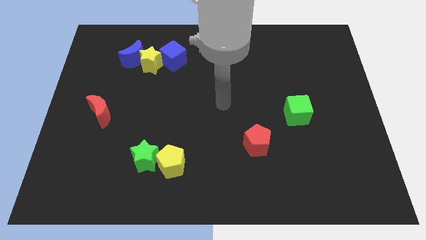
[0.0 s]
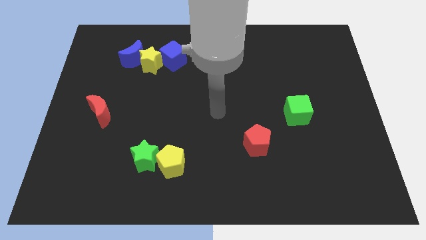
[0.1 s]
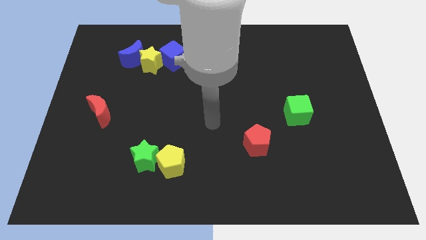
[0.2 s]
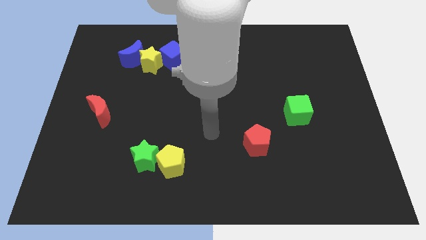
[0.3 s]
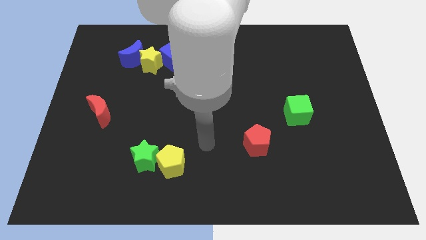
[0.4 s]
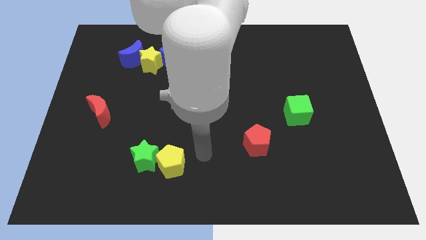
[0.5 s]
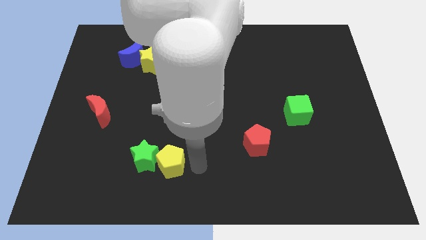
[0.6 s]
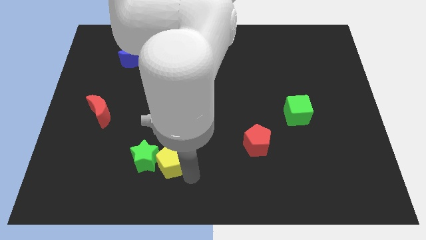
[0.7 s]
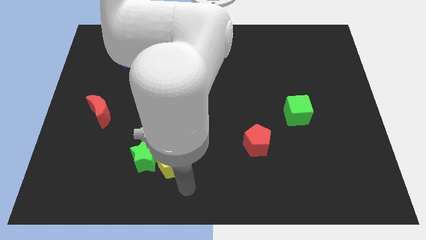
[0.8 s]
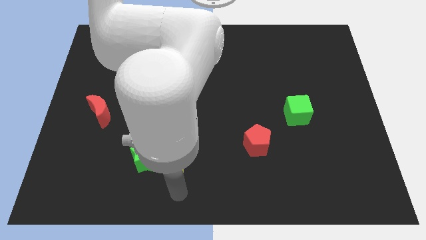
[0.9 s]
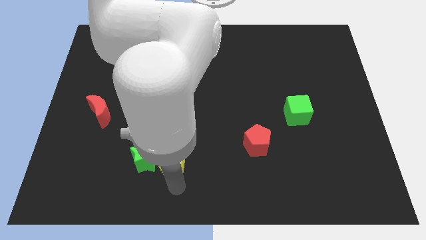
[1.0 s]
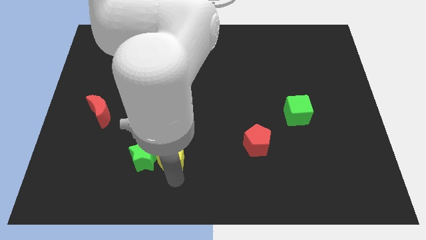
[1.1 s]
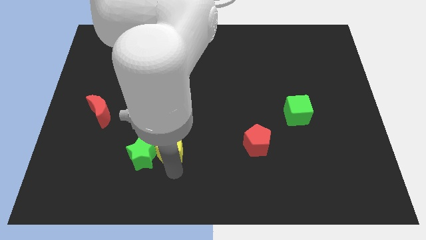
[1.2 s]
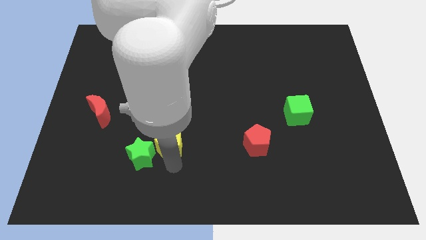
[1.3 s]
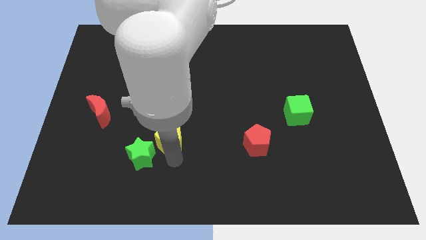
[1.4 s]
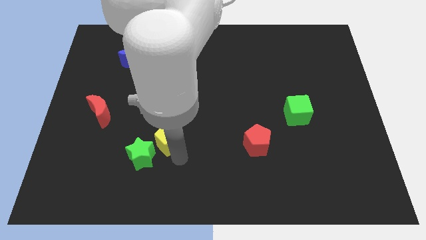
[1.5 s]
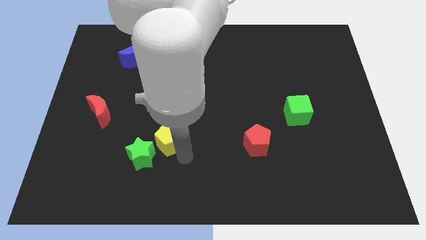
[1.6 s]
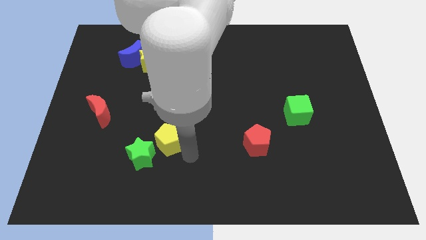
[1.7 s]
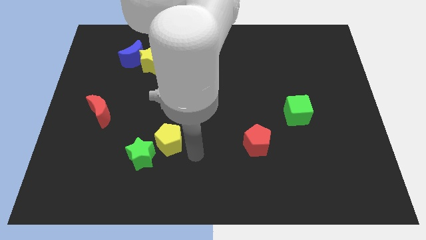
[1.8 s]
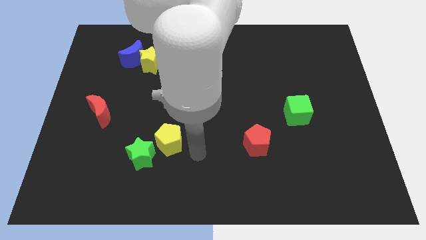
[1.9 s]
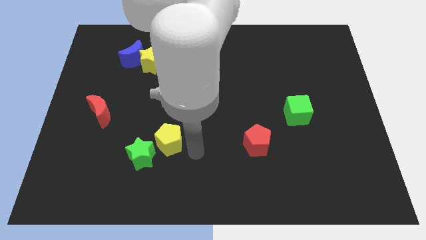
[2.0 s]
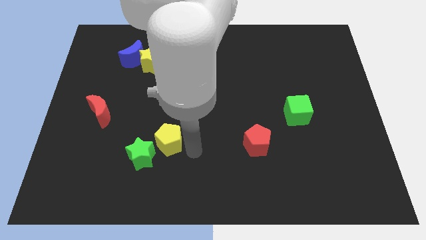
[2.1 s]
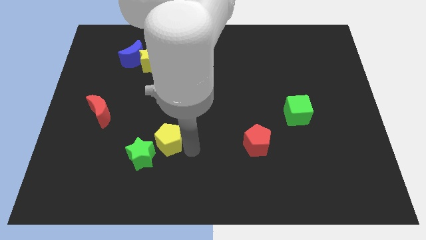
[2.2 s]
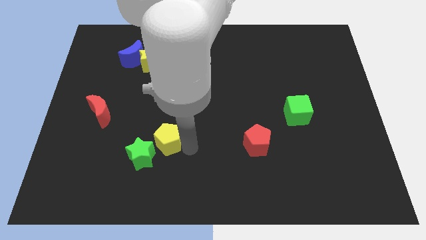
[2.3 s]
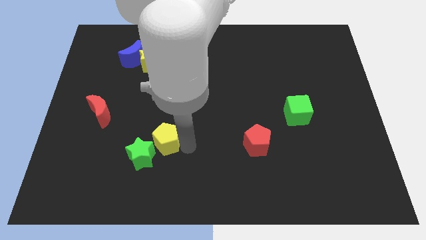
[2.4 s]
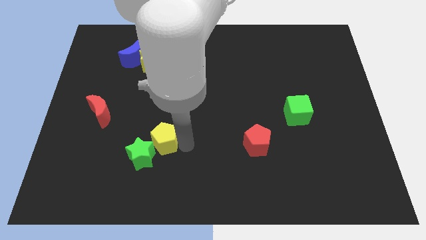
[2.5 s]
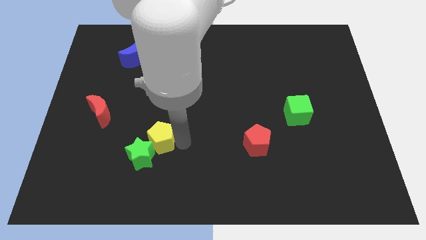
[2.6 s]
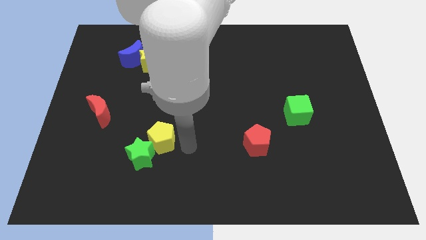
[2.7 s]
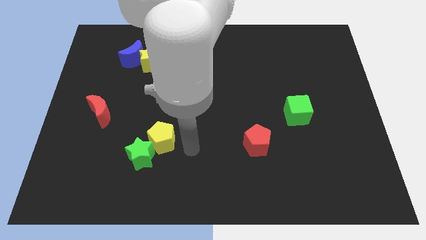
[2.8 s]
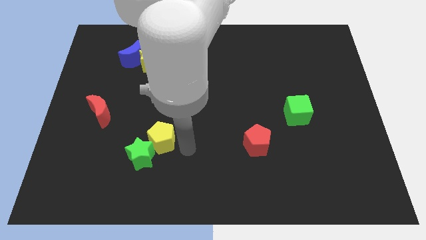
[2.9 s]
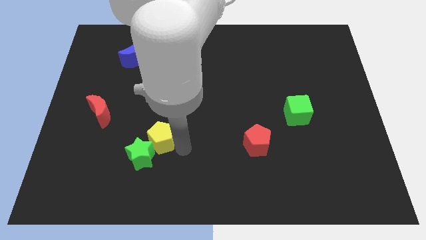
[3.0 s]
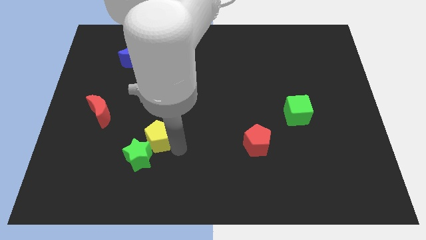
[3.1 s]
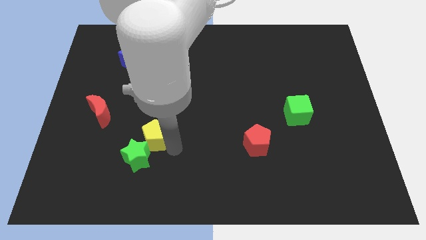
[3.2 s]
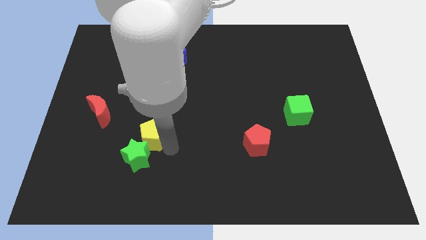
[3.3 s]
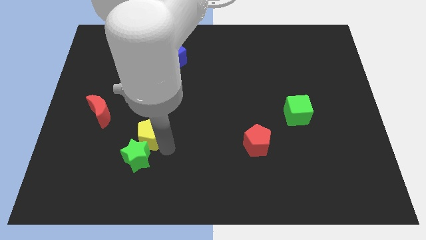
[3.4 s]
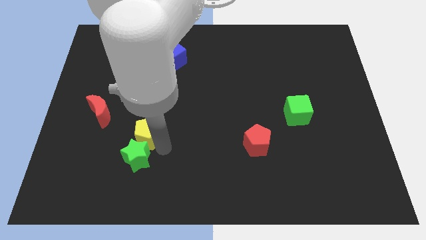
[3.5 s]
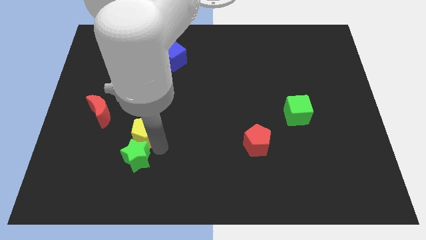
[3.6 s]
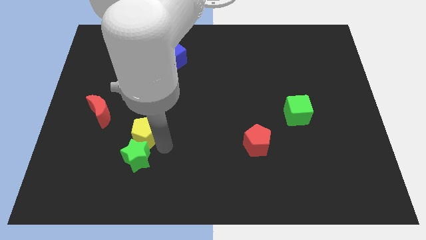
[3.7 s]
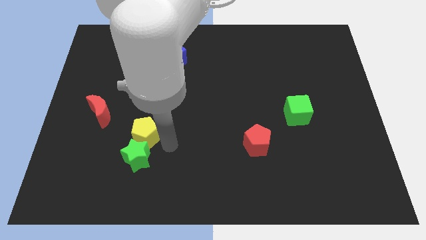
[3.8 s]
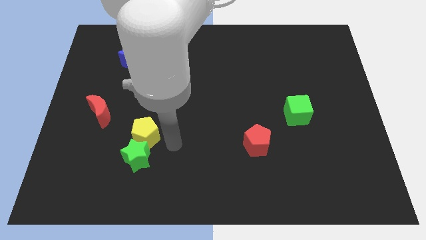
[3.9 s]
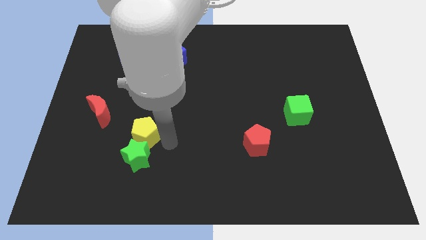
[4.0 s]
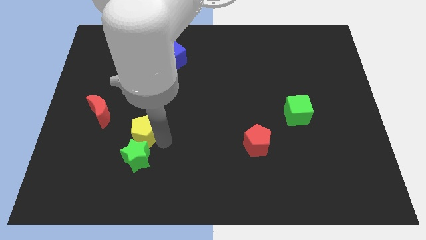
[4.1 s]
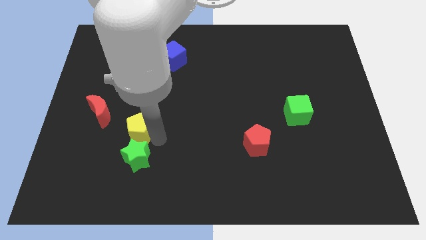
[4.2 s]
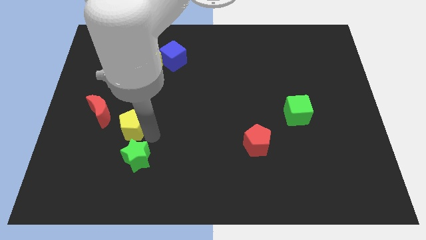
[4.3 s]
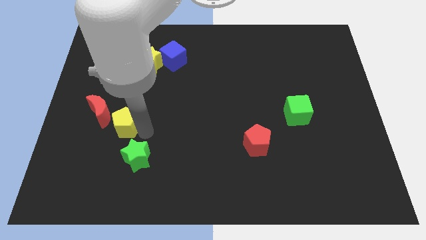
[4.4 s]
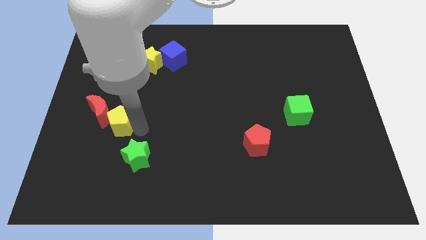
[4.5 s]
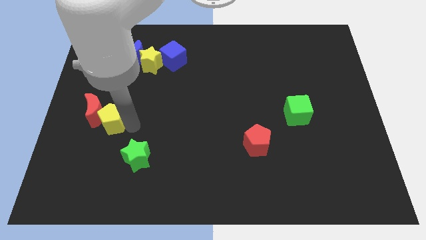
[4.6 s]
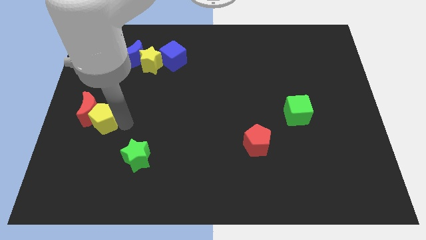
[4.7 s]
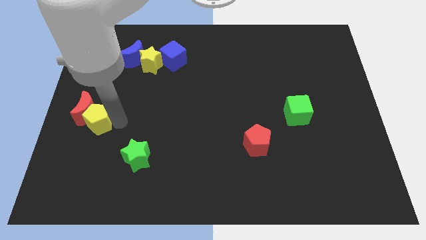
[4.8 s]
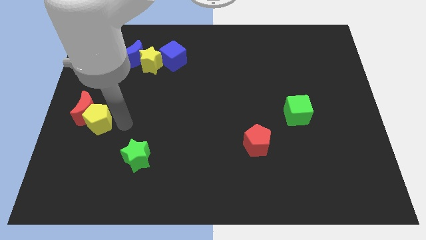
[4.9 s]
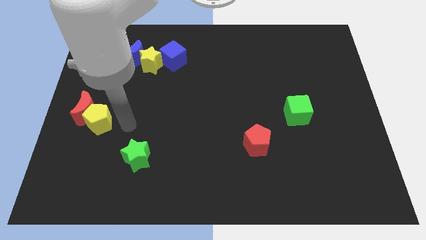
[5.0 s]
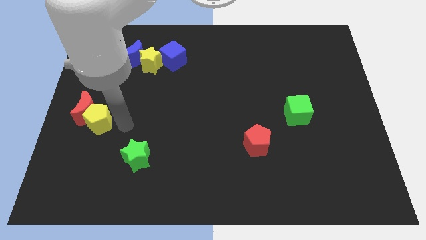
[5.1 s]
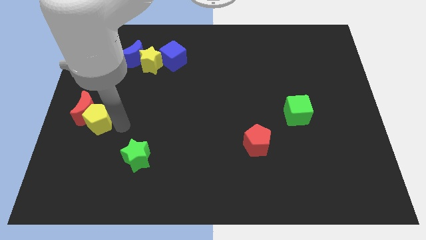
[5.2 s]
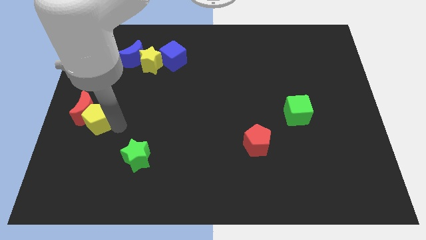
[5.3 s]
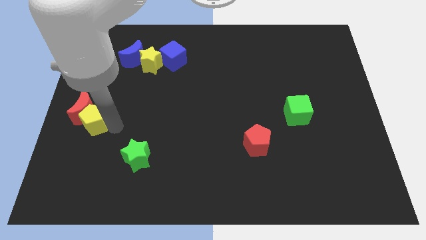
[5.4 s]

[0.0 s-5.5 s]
put the yellow pentagon to the left side

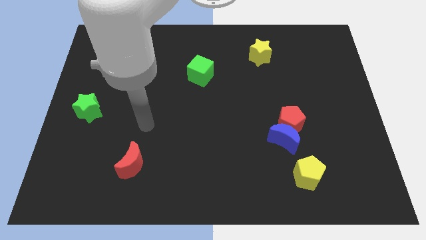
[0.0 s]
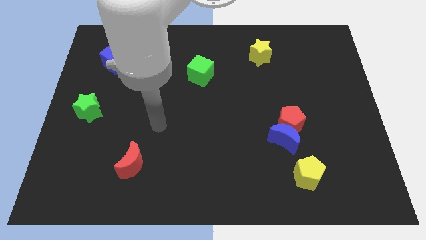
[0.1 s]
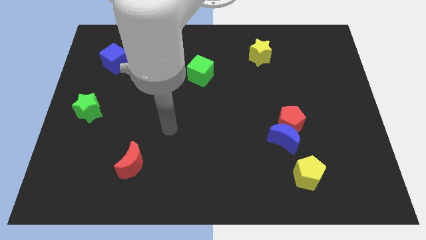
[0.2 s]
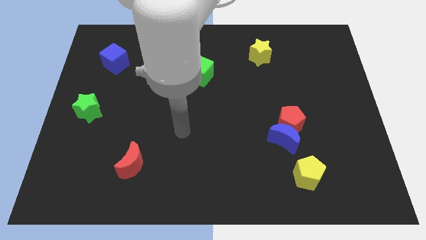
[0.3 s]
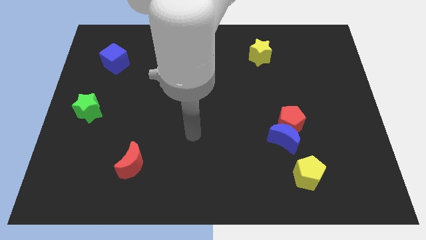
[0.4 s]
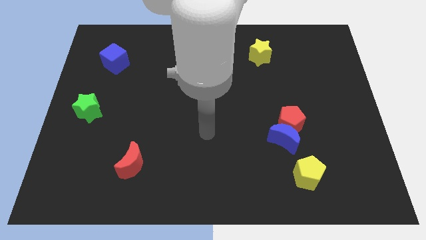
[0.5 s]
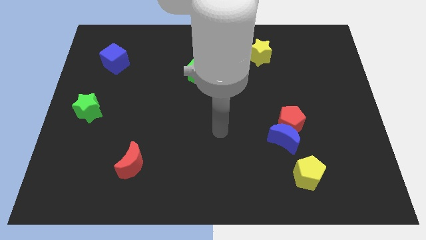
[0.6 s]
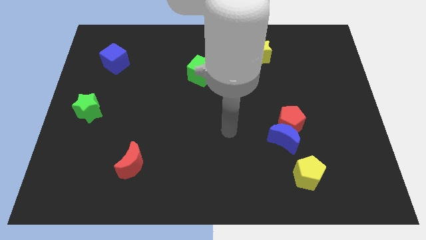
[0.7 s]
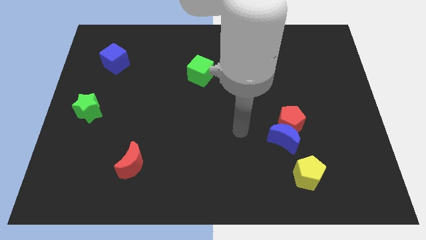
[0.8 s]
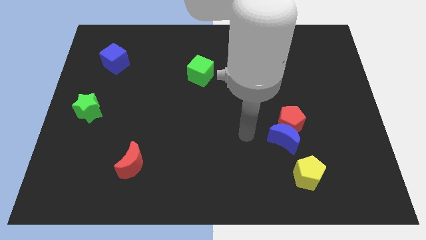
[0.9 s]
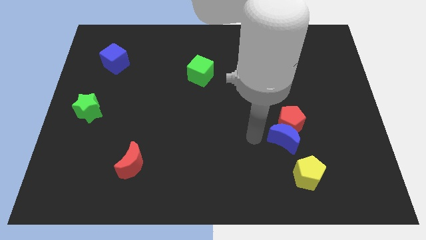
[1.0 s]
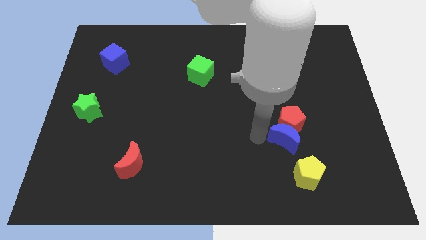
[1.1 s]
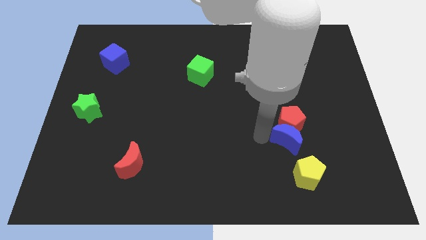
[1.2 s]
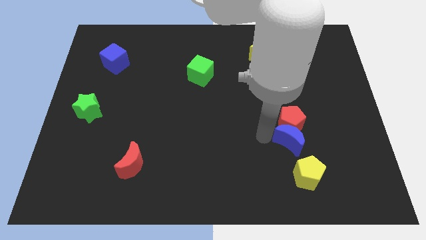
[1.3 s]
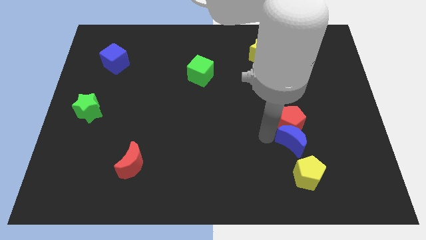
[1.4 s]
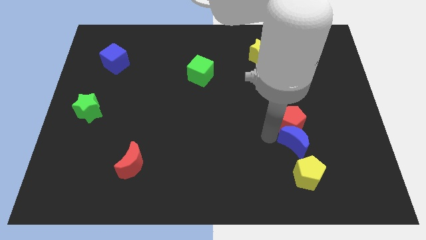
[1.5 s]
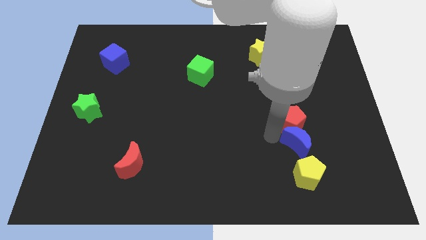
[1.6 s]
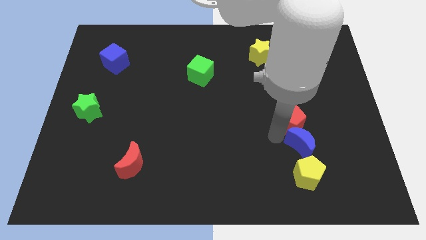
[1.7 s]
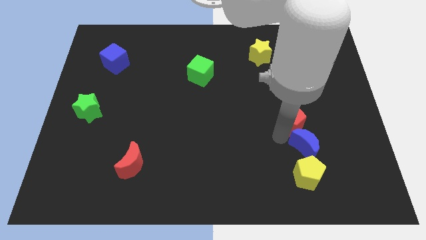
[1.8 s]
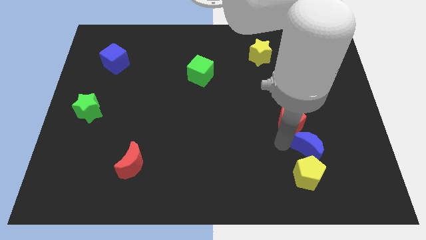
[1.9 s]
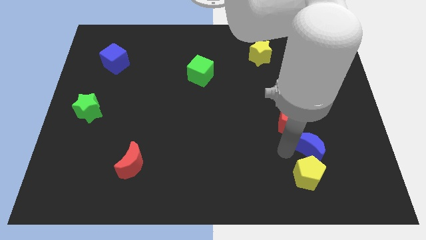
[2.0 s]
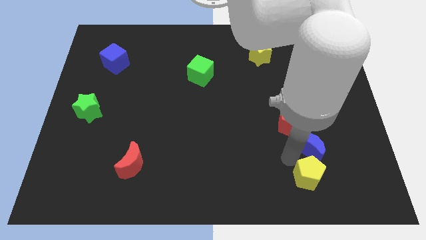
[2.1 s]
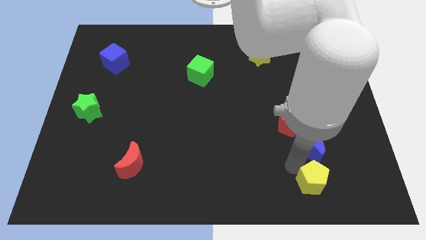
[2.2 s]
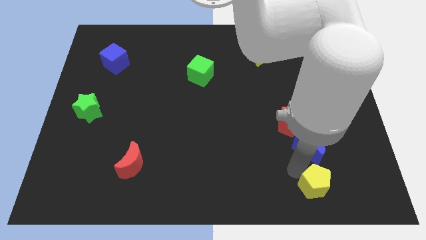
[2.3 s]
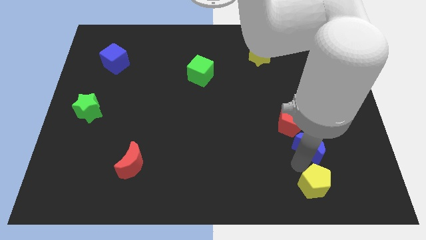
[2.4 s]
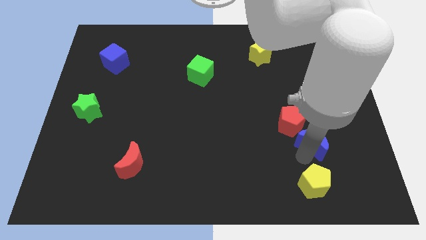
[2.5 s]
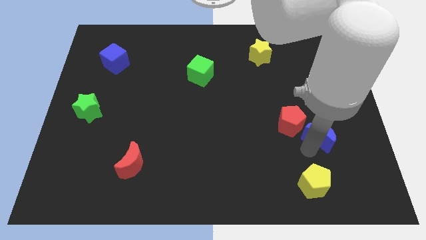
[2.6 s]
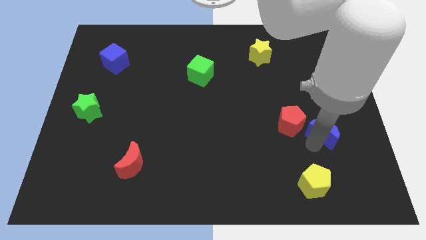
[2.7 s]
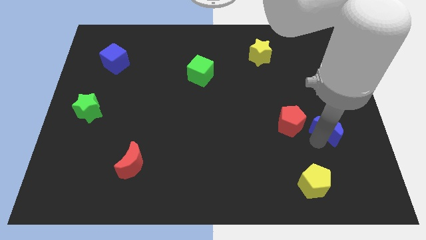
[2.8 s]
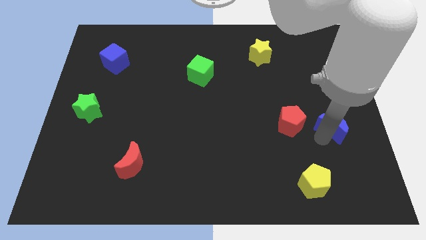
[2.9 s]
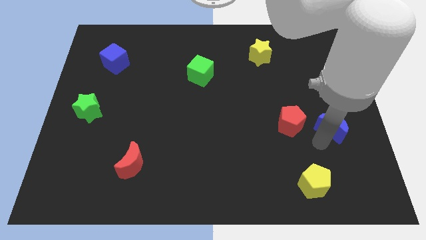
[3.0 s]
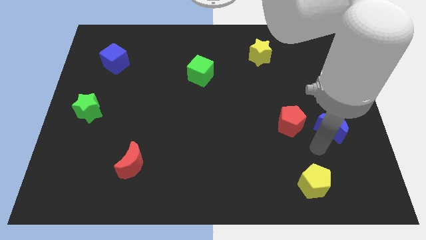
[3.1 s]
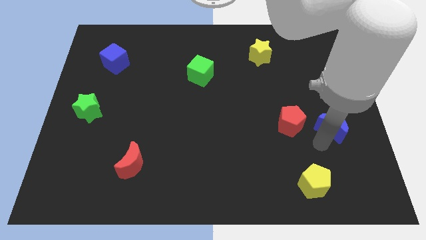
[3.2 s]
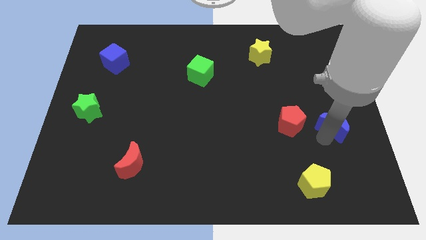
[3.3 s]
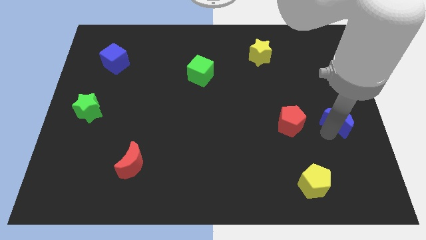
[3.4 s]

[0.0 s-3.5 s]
push the blue moon to the right side of the board
